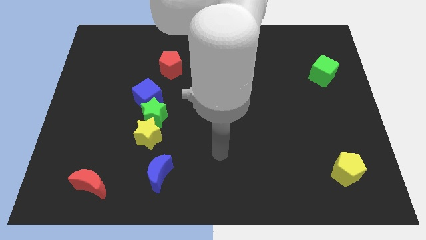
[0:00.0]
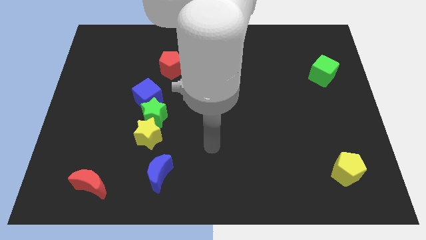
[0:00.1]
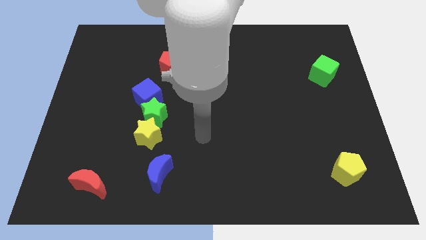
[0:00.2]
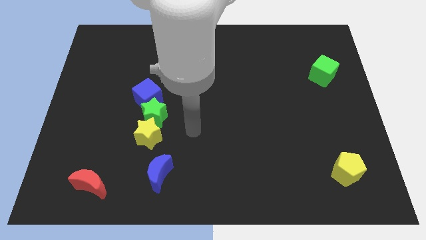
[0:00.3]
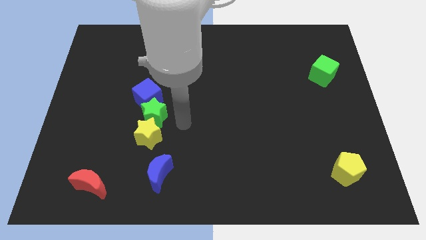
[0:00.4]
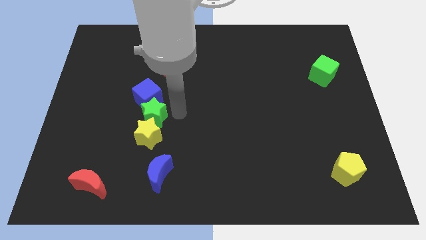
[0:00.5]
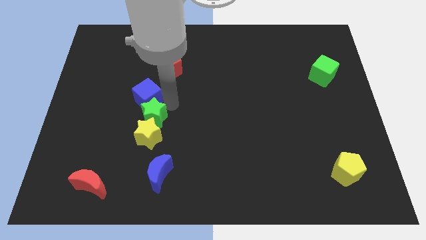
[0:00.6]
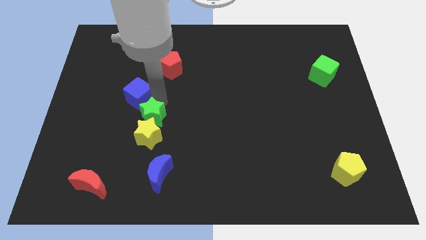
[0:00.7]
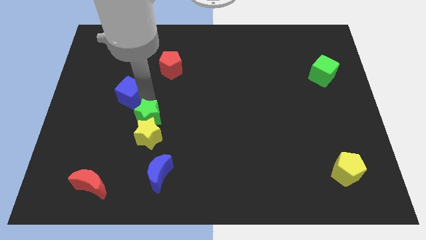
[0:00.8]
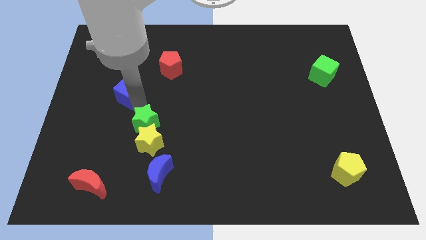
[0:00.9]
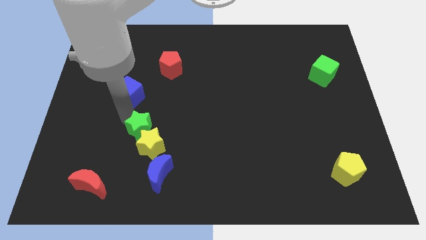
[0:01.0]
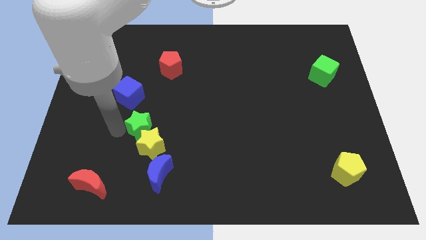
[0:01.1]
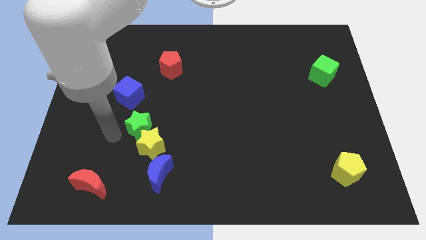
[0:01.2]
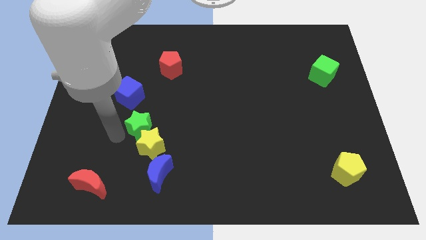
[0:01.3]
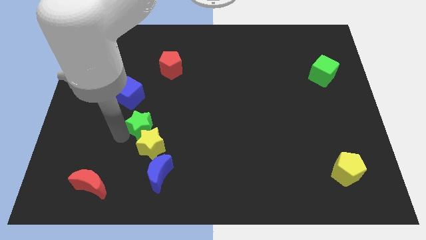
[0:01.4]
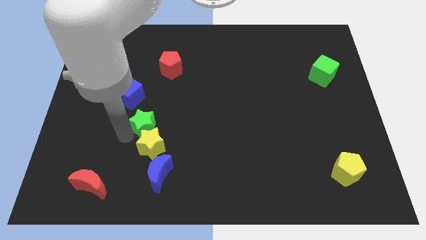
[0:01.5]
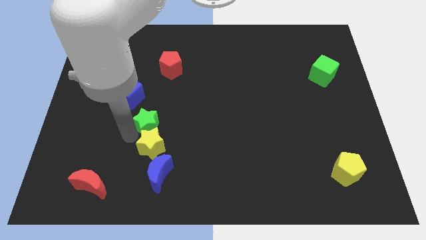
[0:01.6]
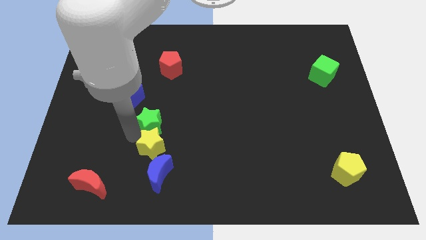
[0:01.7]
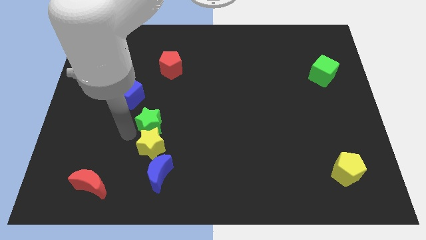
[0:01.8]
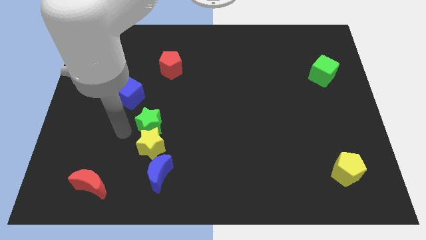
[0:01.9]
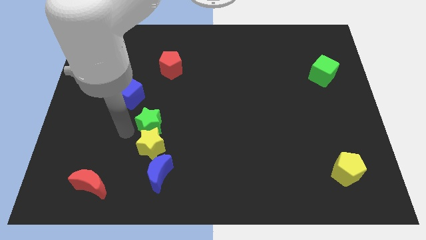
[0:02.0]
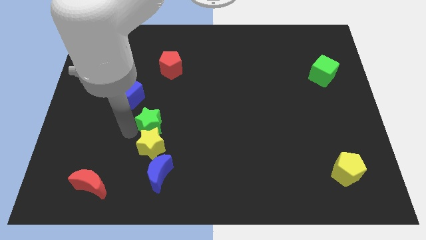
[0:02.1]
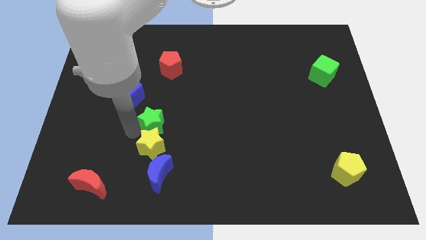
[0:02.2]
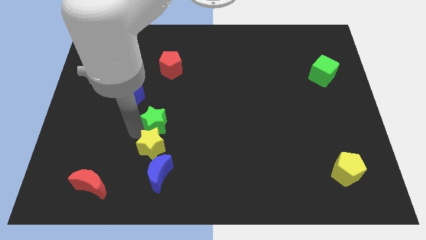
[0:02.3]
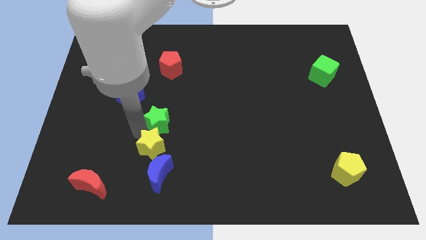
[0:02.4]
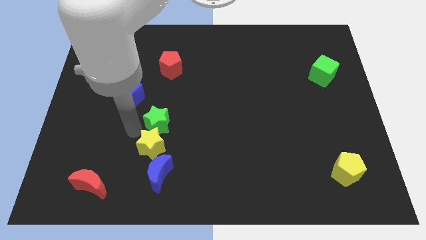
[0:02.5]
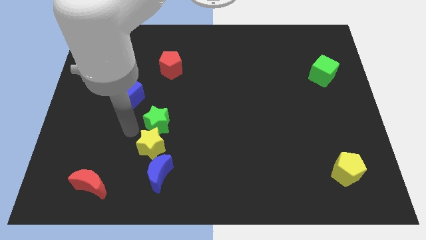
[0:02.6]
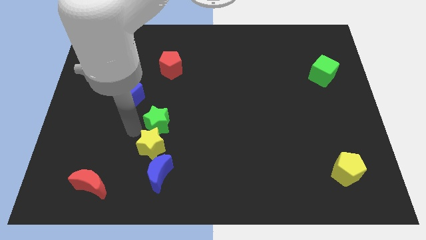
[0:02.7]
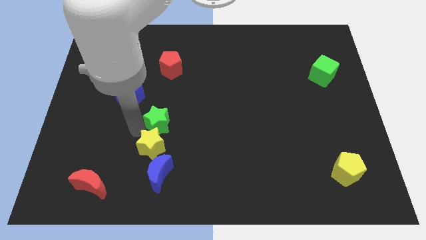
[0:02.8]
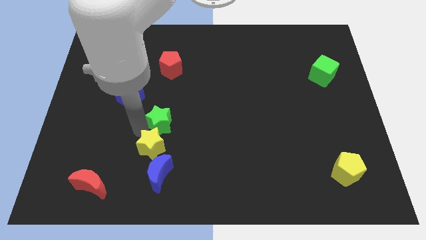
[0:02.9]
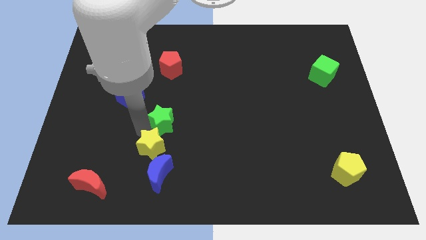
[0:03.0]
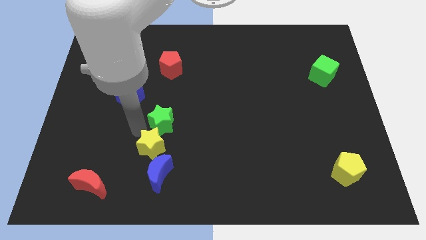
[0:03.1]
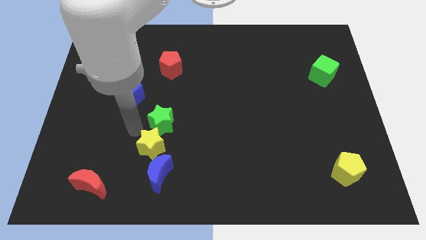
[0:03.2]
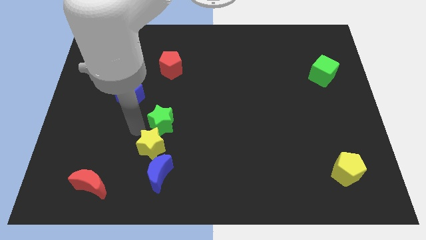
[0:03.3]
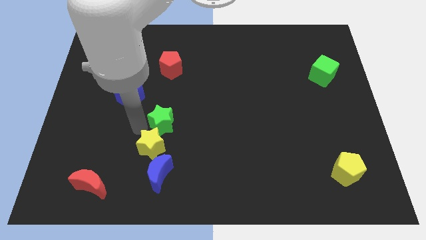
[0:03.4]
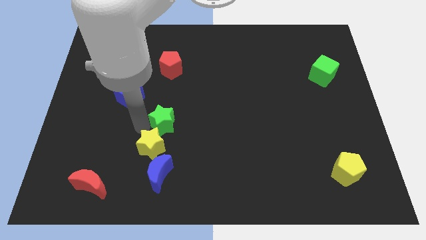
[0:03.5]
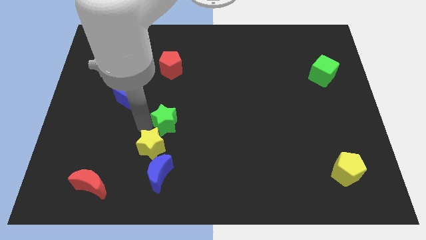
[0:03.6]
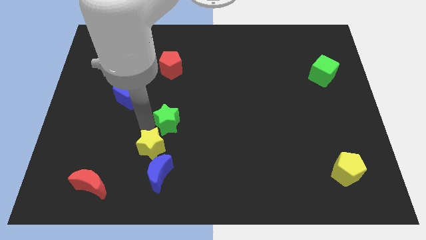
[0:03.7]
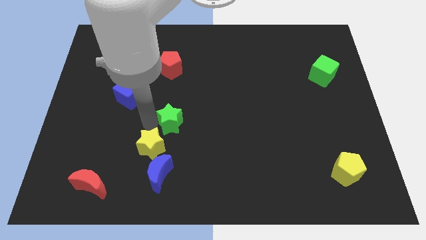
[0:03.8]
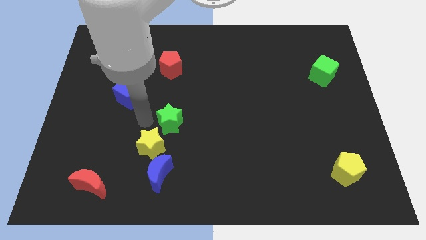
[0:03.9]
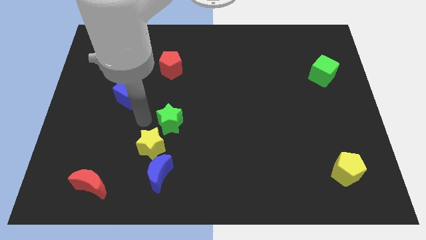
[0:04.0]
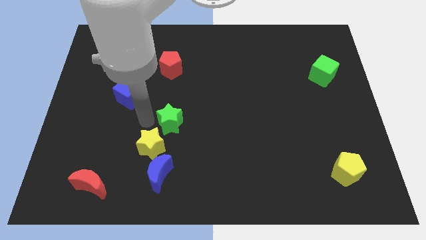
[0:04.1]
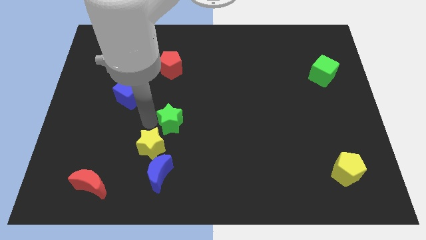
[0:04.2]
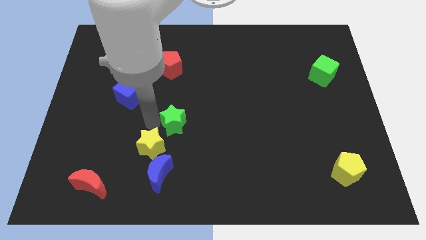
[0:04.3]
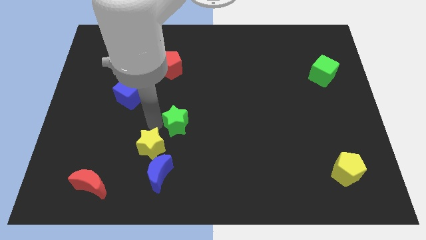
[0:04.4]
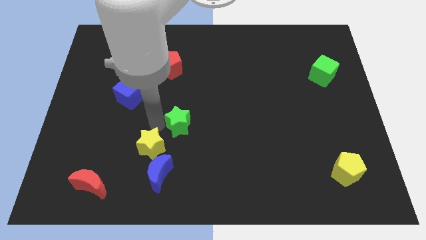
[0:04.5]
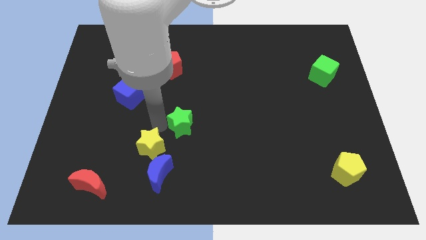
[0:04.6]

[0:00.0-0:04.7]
pull the green star apart from the yellow star and blue cube

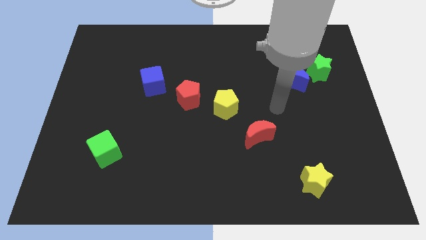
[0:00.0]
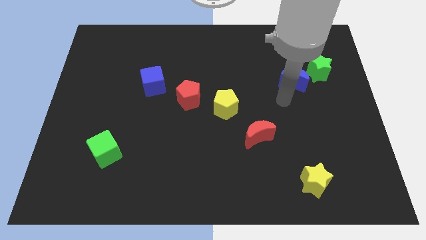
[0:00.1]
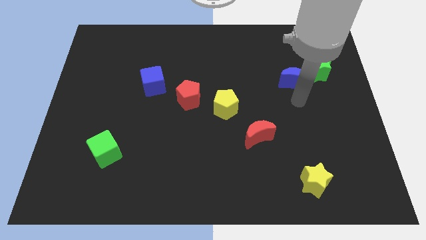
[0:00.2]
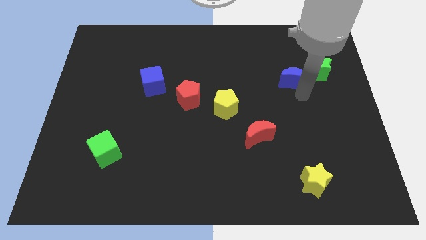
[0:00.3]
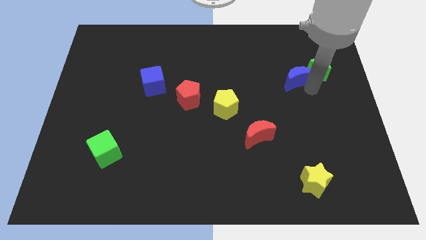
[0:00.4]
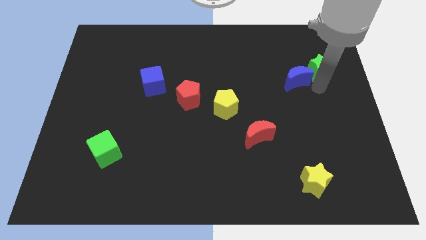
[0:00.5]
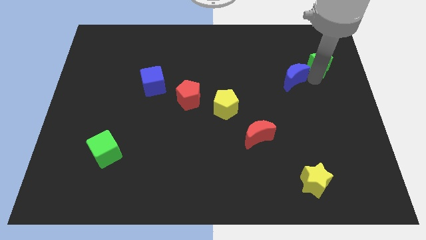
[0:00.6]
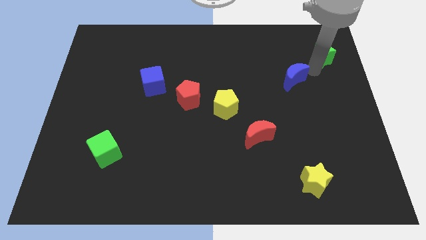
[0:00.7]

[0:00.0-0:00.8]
separate the blue moon from the green star

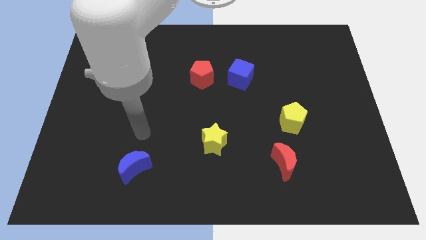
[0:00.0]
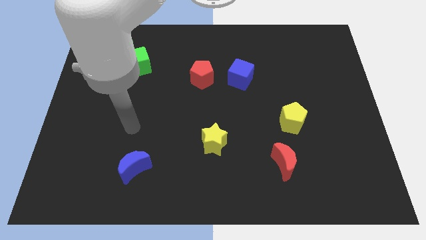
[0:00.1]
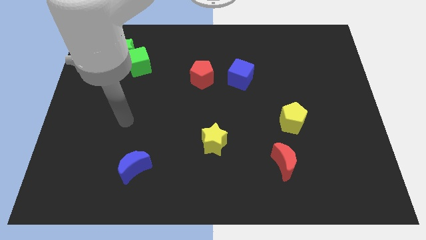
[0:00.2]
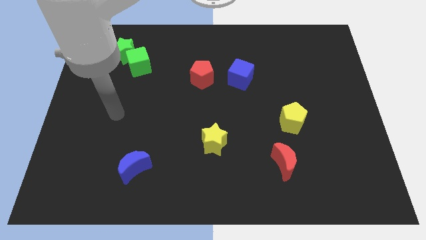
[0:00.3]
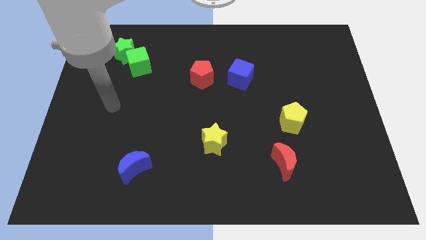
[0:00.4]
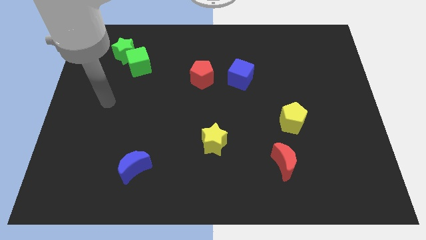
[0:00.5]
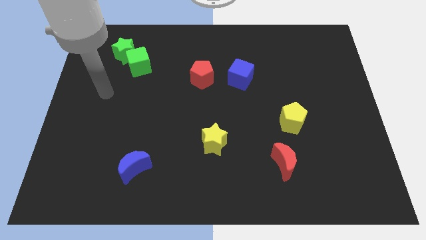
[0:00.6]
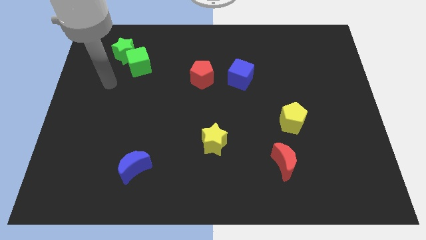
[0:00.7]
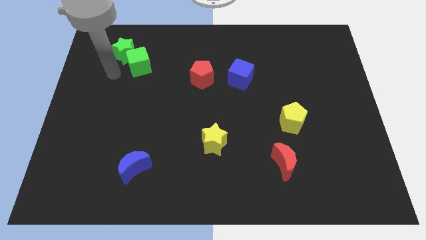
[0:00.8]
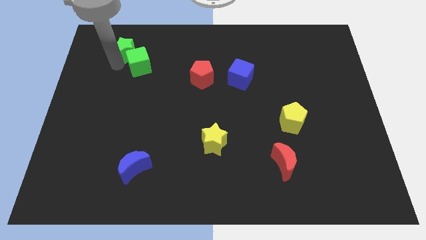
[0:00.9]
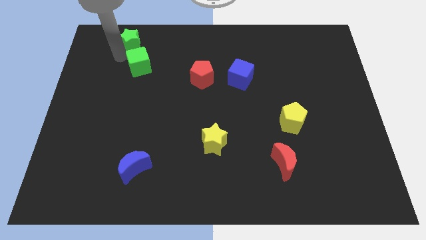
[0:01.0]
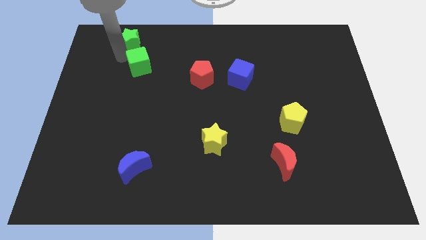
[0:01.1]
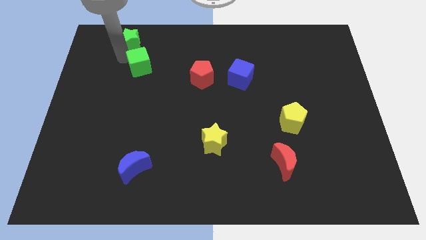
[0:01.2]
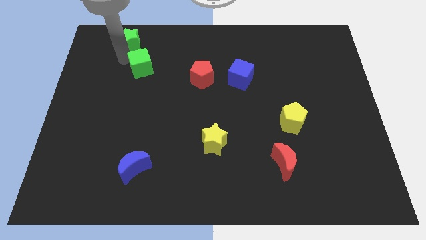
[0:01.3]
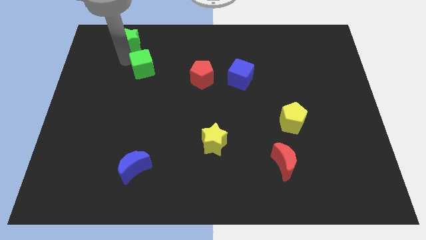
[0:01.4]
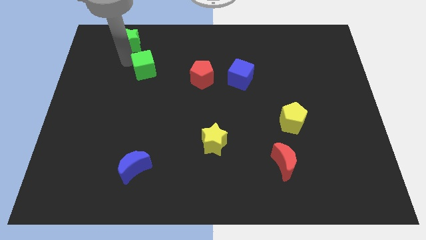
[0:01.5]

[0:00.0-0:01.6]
pull the green cube apart from the green star

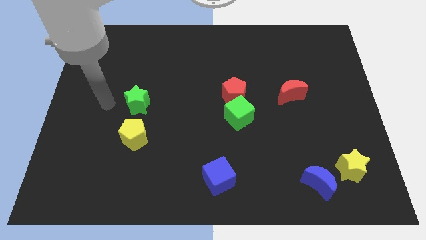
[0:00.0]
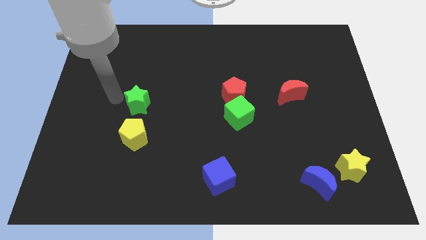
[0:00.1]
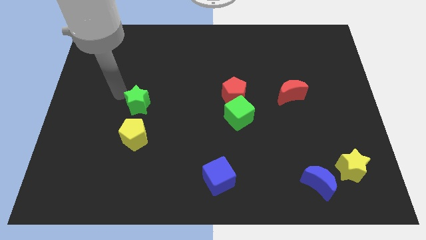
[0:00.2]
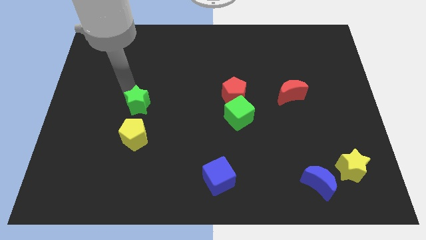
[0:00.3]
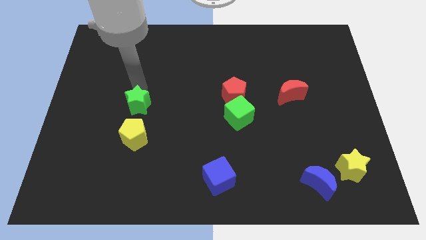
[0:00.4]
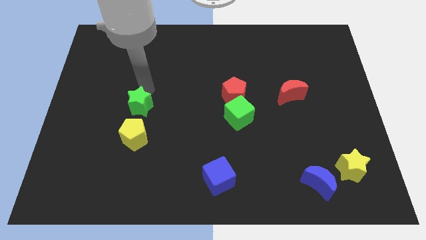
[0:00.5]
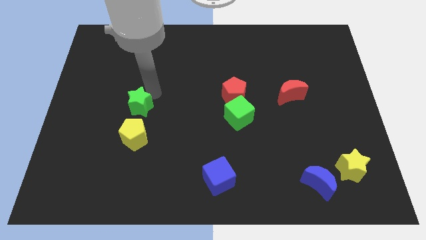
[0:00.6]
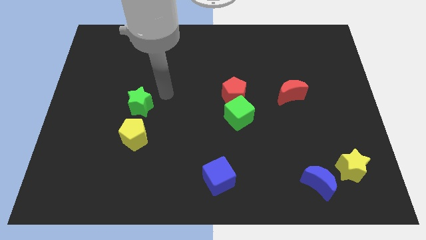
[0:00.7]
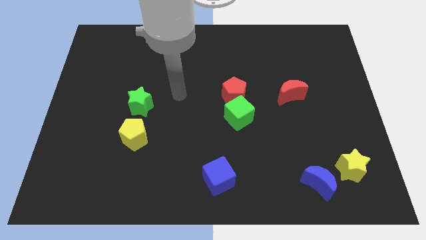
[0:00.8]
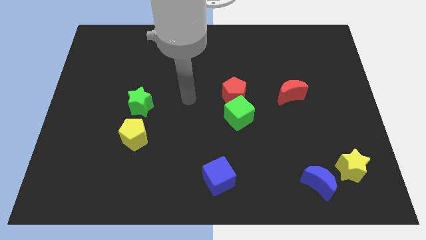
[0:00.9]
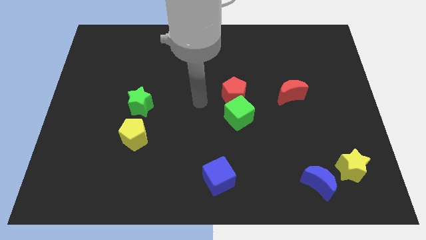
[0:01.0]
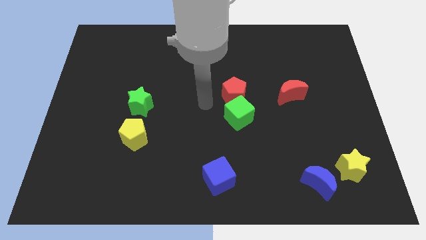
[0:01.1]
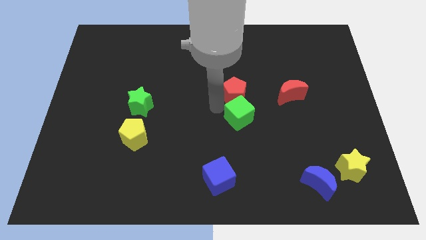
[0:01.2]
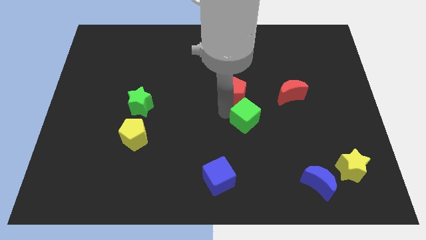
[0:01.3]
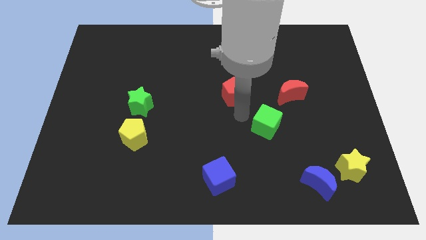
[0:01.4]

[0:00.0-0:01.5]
separate the red pentagon from the green cube

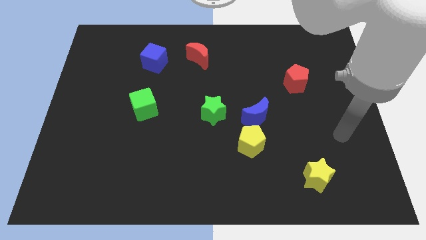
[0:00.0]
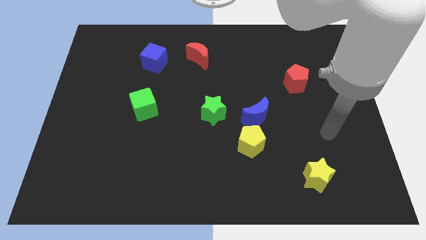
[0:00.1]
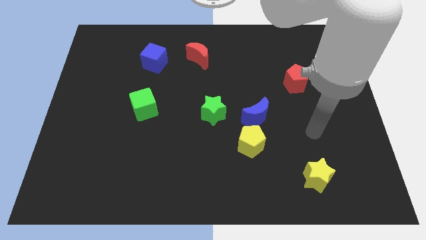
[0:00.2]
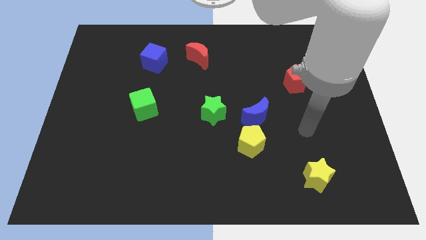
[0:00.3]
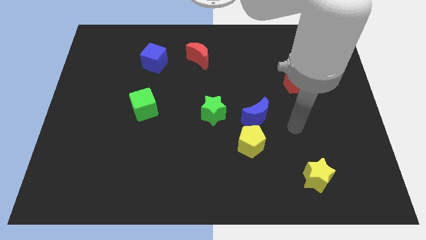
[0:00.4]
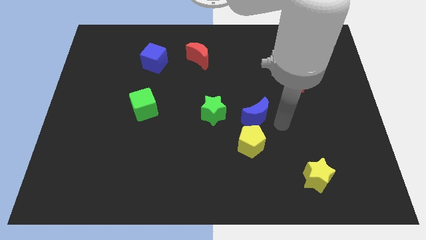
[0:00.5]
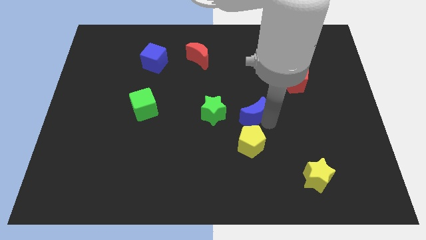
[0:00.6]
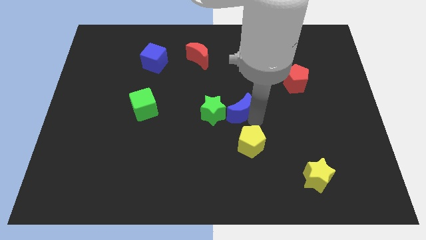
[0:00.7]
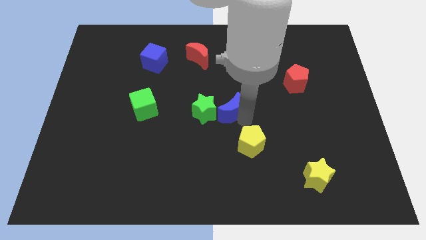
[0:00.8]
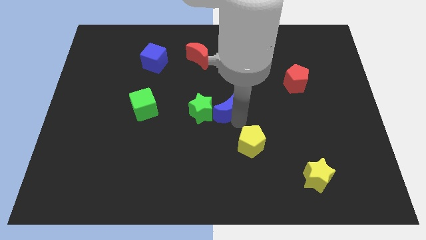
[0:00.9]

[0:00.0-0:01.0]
pull the yellow pentagon apart from the blue moon
